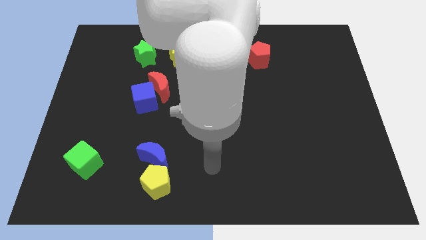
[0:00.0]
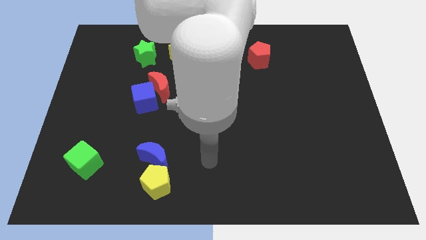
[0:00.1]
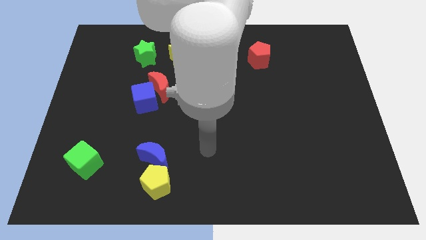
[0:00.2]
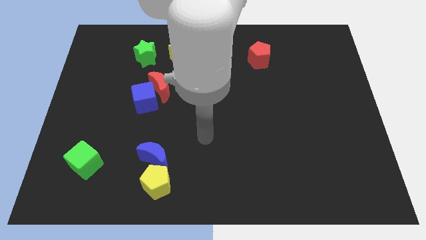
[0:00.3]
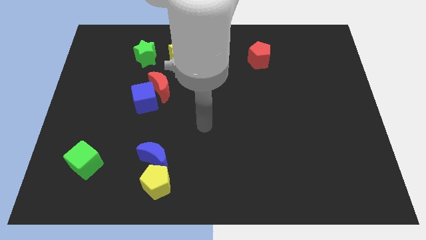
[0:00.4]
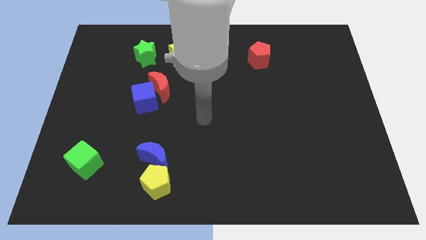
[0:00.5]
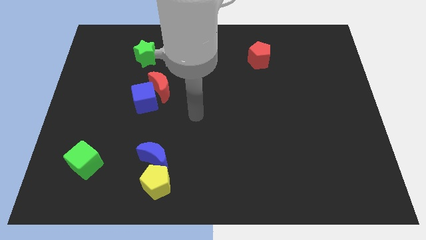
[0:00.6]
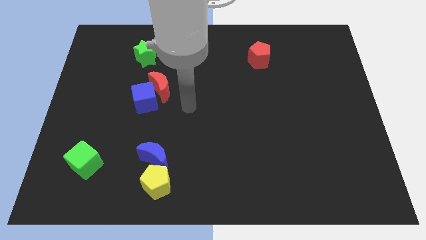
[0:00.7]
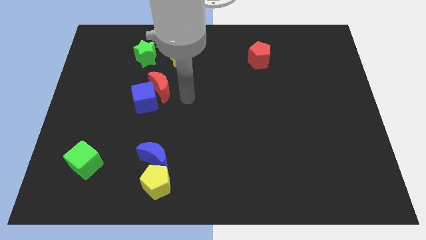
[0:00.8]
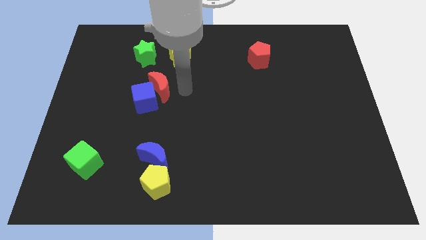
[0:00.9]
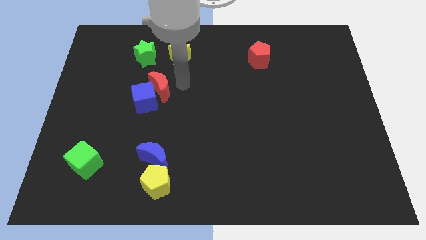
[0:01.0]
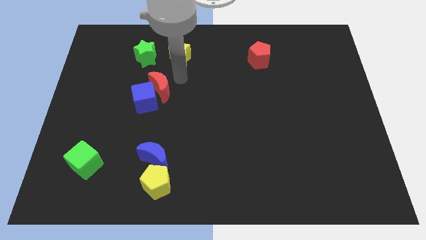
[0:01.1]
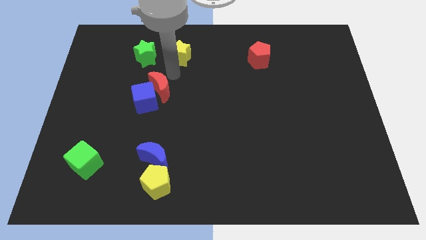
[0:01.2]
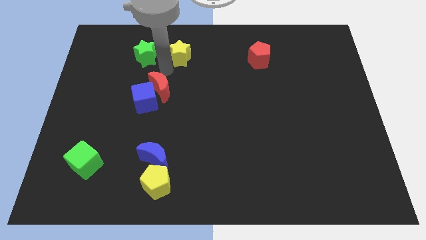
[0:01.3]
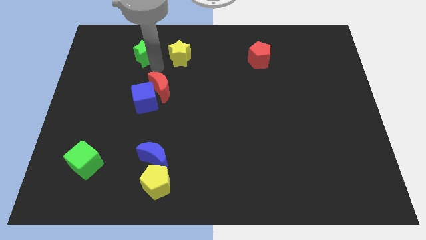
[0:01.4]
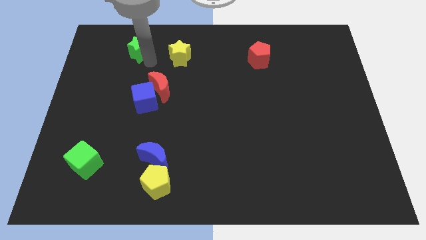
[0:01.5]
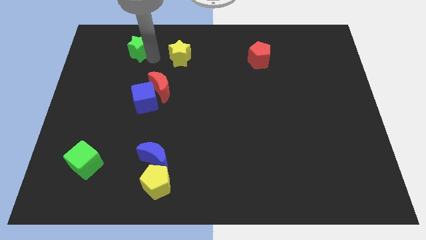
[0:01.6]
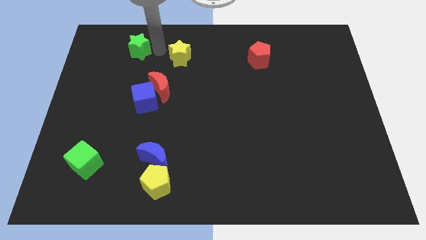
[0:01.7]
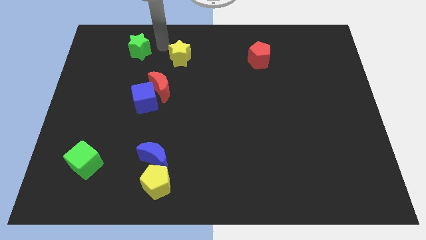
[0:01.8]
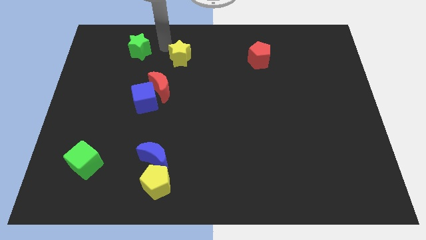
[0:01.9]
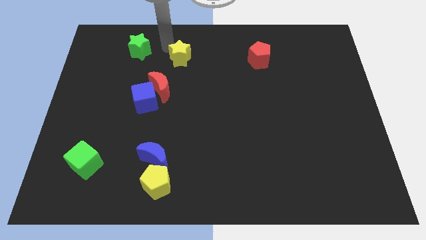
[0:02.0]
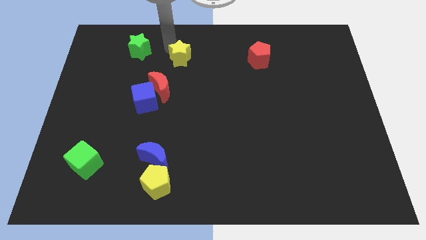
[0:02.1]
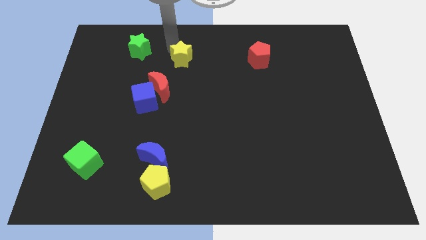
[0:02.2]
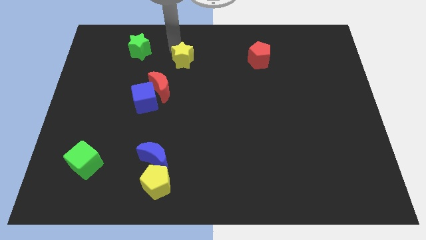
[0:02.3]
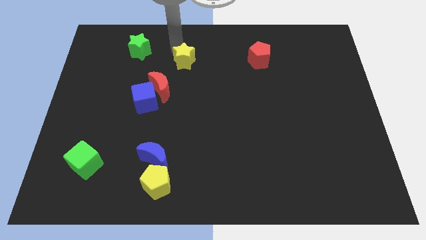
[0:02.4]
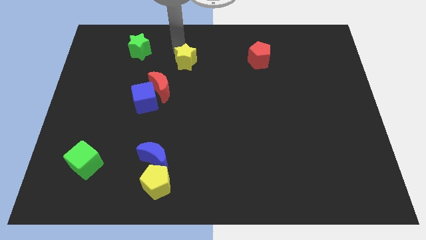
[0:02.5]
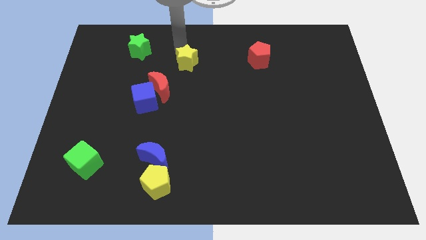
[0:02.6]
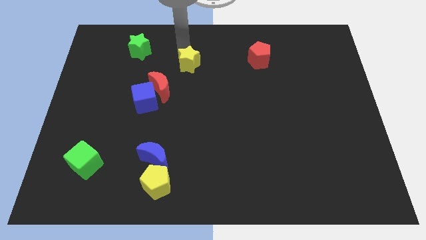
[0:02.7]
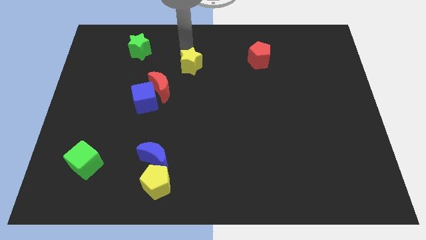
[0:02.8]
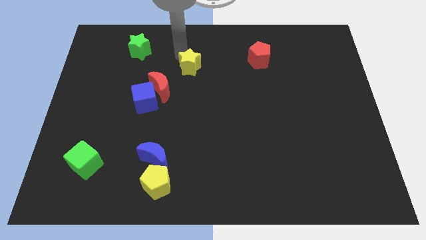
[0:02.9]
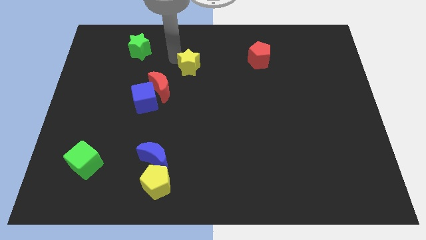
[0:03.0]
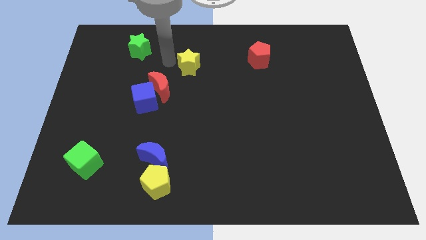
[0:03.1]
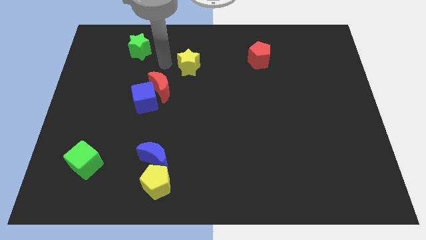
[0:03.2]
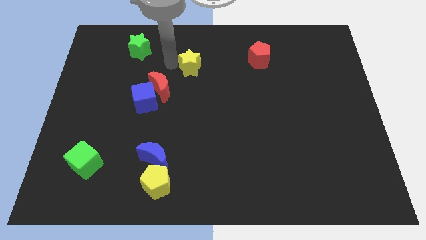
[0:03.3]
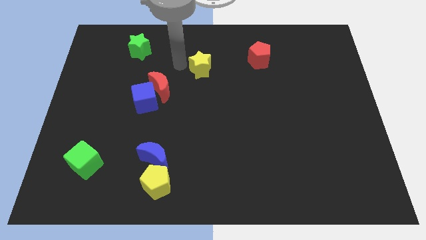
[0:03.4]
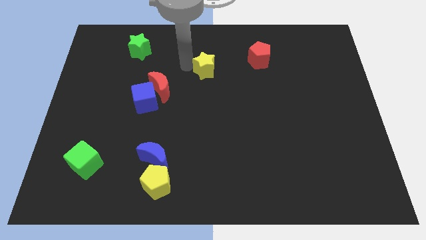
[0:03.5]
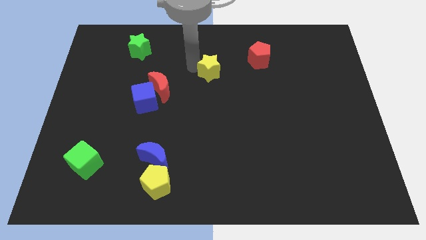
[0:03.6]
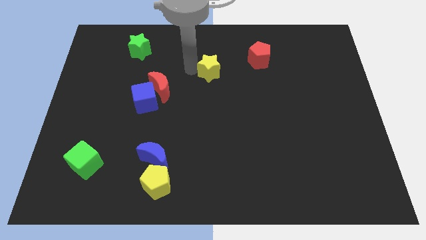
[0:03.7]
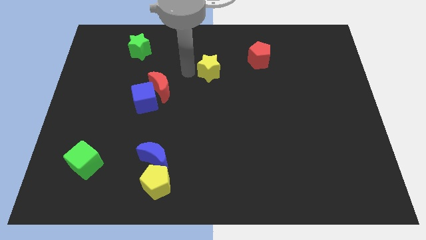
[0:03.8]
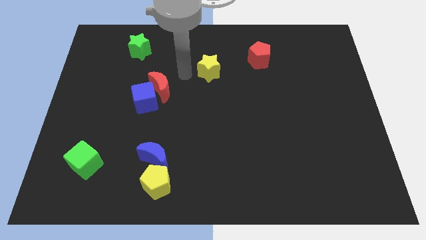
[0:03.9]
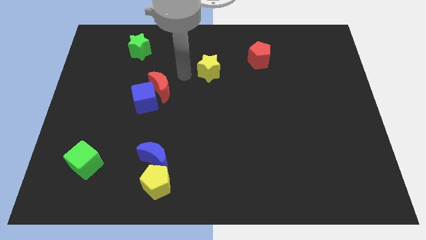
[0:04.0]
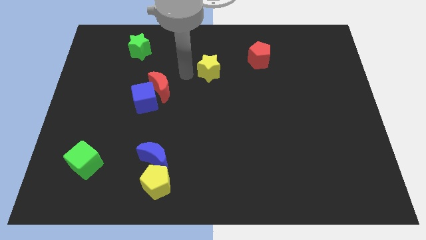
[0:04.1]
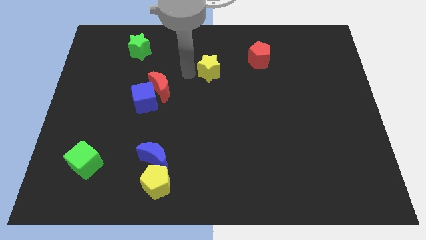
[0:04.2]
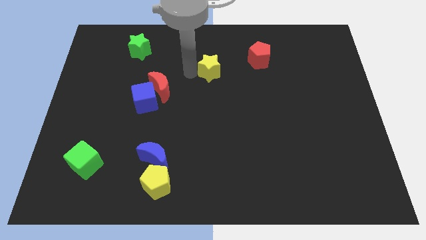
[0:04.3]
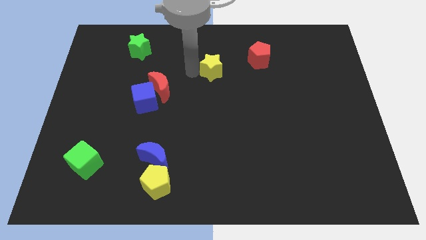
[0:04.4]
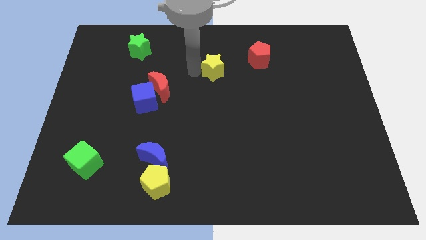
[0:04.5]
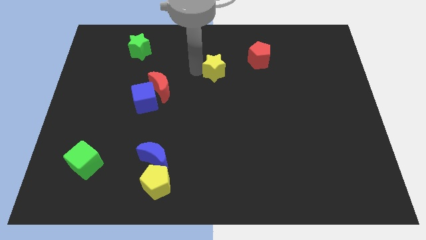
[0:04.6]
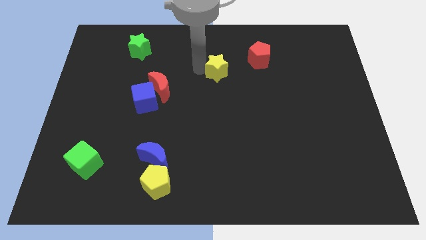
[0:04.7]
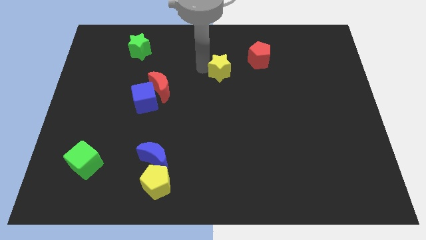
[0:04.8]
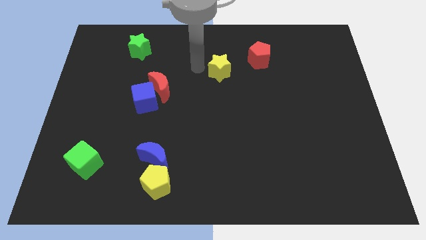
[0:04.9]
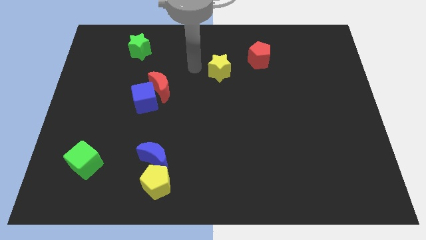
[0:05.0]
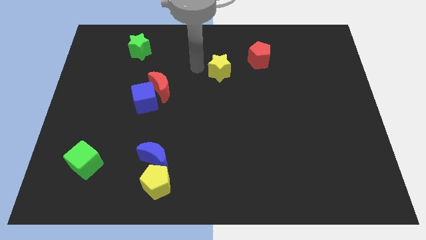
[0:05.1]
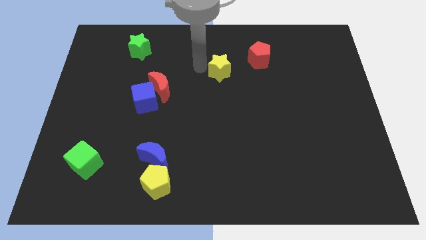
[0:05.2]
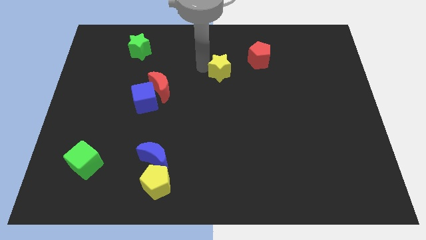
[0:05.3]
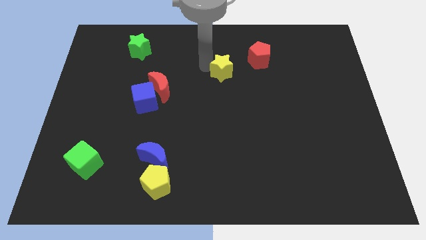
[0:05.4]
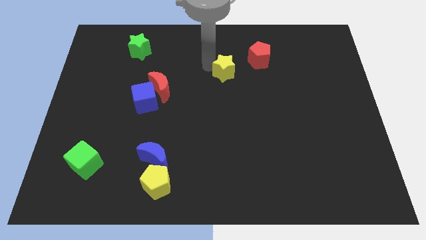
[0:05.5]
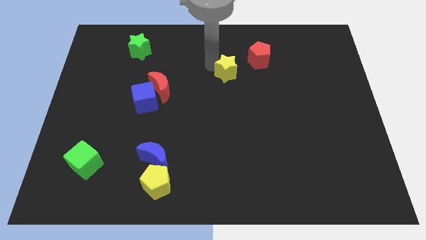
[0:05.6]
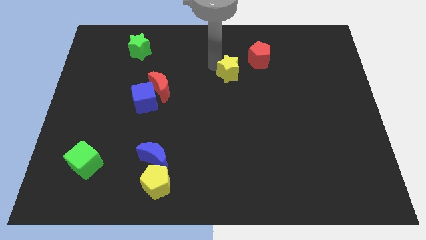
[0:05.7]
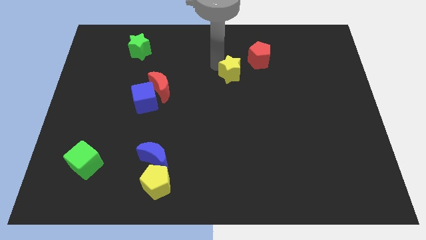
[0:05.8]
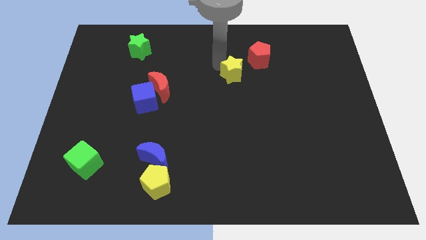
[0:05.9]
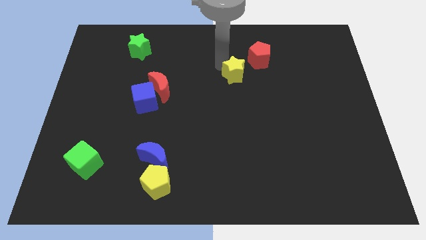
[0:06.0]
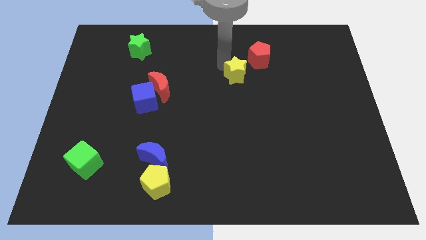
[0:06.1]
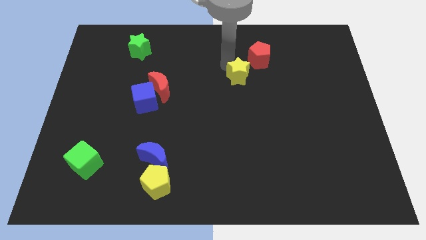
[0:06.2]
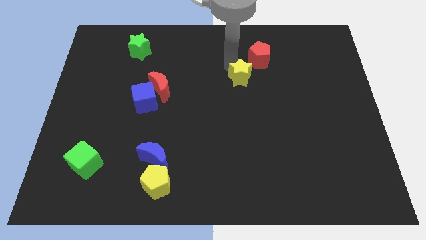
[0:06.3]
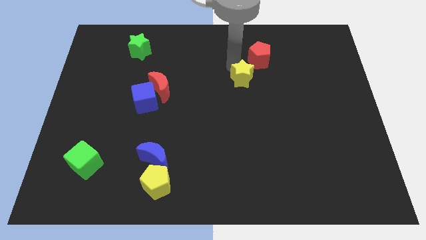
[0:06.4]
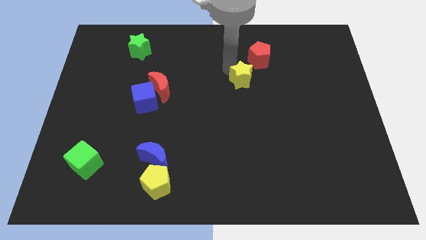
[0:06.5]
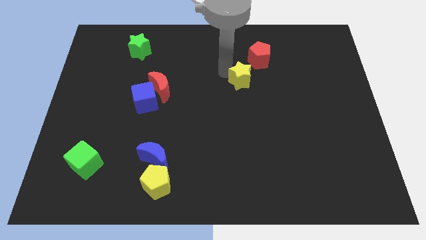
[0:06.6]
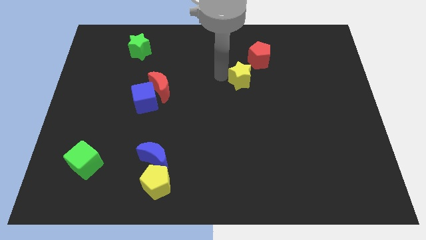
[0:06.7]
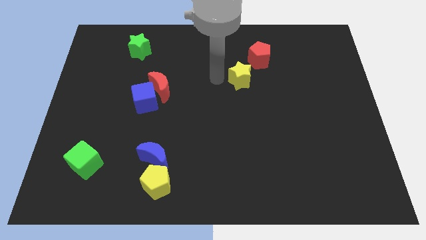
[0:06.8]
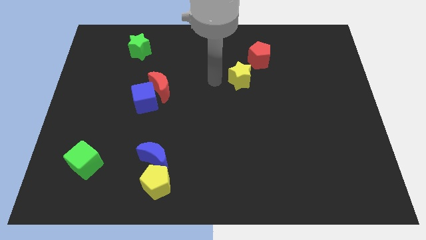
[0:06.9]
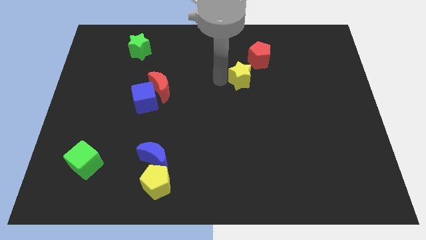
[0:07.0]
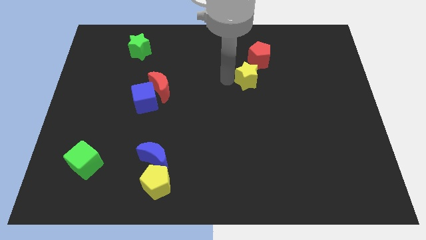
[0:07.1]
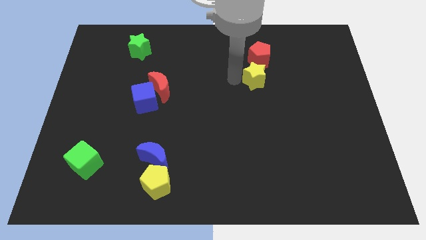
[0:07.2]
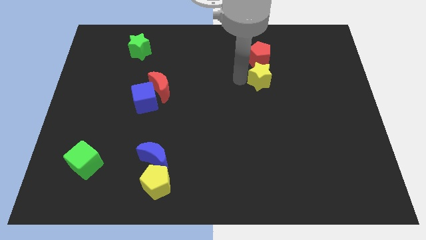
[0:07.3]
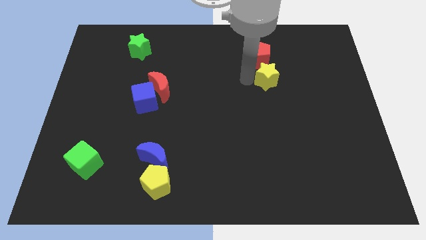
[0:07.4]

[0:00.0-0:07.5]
move the yellow star diagonally down and to the right of the red pentagon

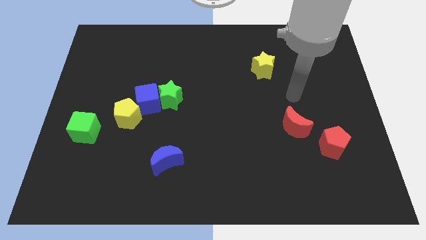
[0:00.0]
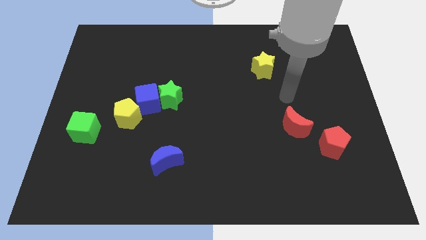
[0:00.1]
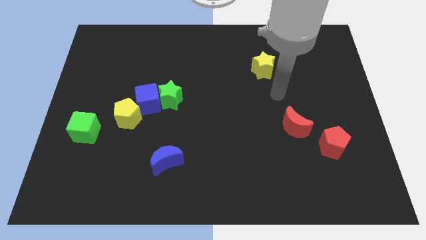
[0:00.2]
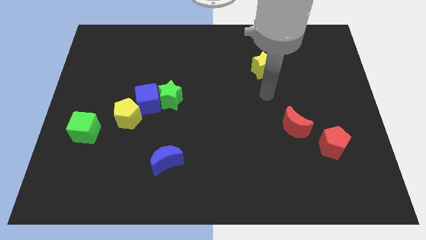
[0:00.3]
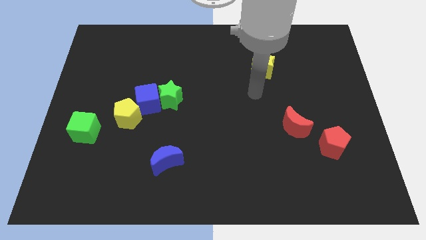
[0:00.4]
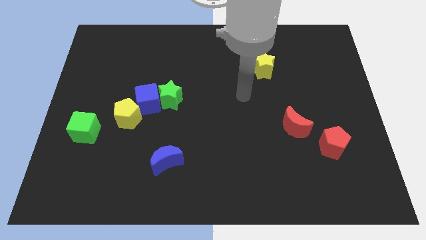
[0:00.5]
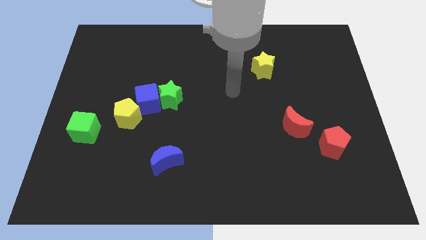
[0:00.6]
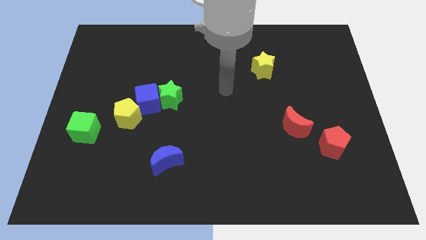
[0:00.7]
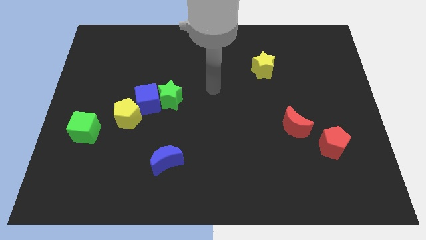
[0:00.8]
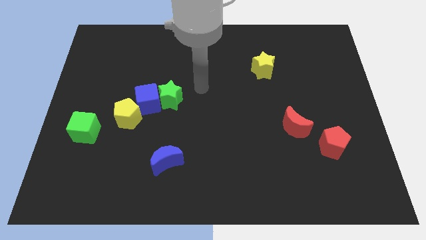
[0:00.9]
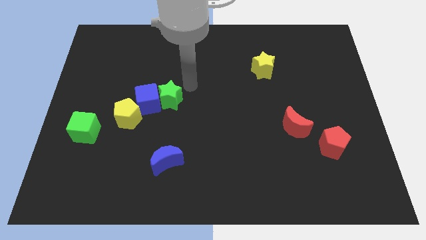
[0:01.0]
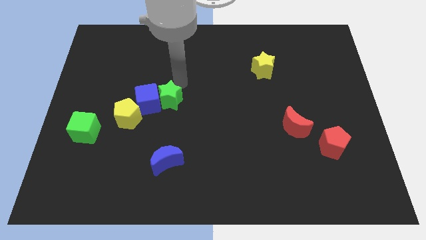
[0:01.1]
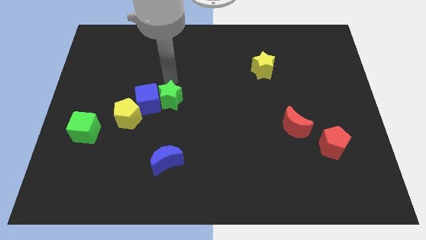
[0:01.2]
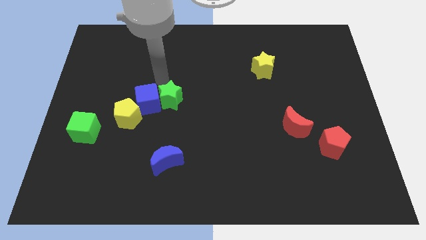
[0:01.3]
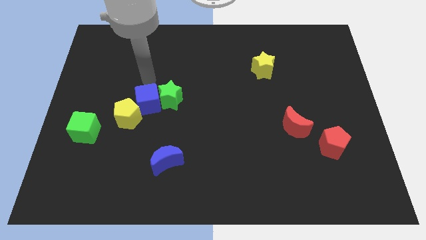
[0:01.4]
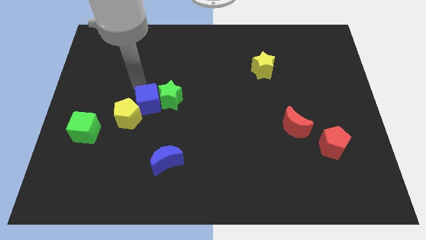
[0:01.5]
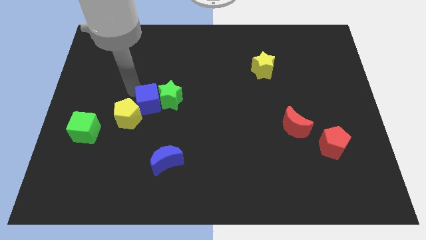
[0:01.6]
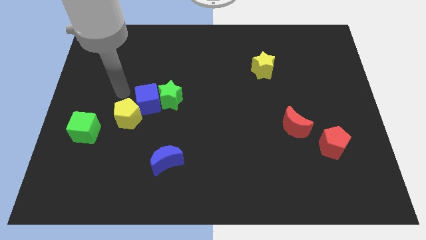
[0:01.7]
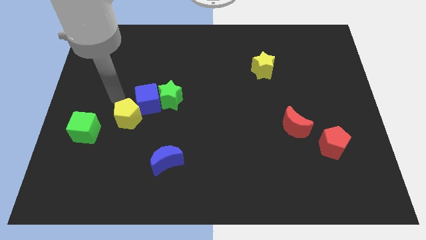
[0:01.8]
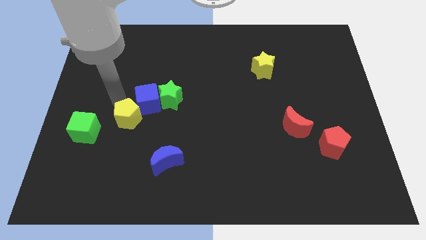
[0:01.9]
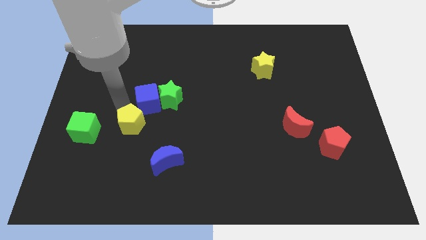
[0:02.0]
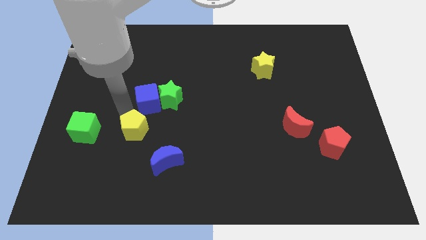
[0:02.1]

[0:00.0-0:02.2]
push the yellow pentagon to the top left of the blue moon
